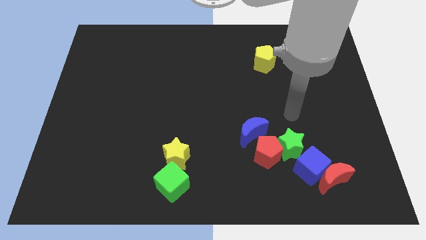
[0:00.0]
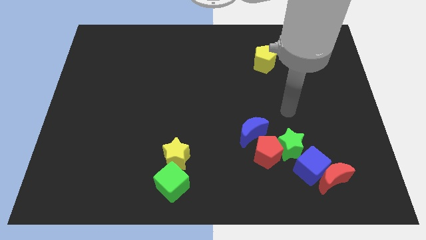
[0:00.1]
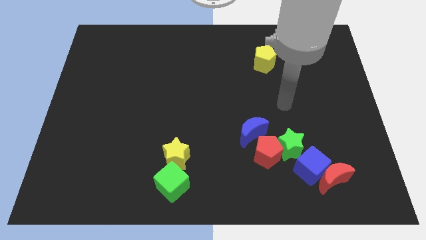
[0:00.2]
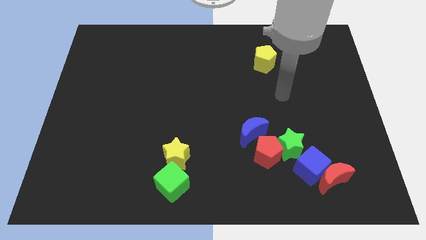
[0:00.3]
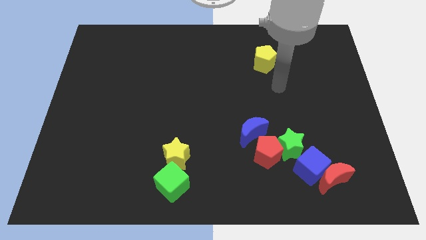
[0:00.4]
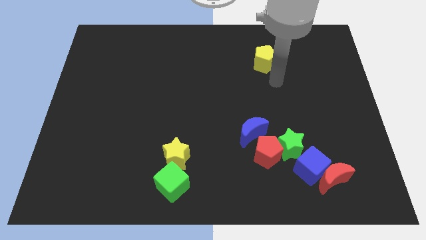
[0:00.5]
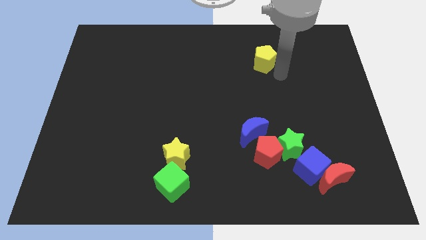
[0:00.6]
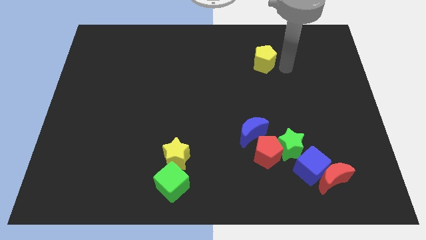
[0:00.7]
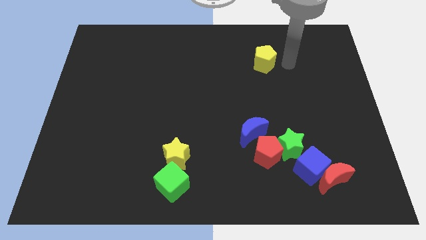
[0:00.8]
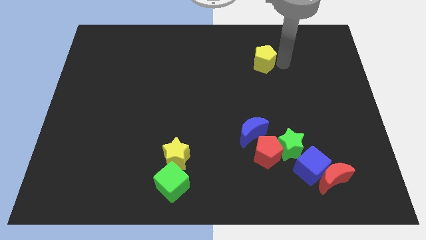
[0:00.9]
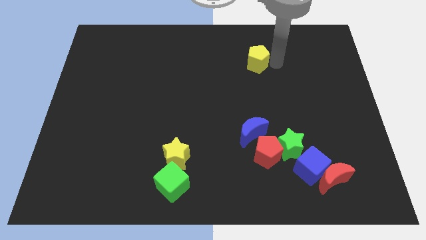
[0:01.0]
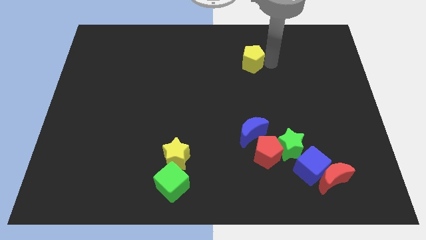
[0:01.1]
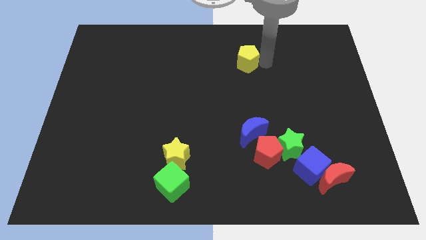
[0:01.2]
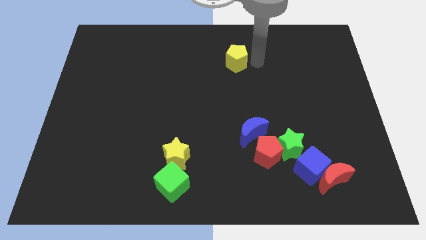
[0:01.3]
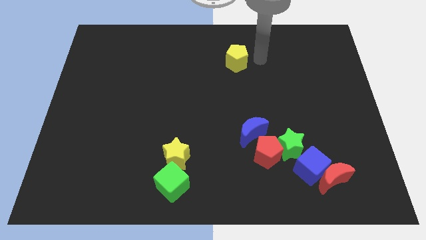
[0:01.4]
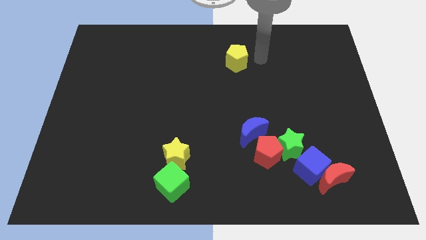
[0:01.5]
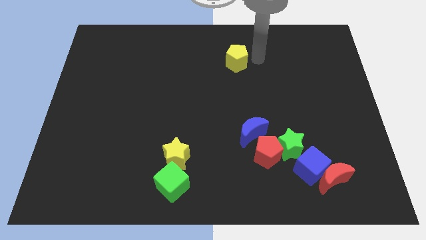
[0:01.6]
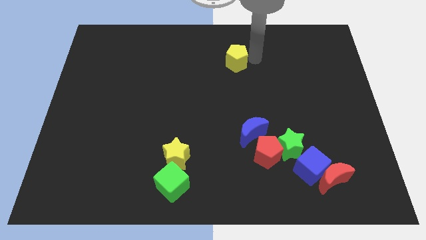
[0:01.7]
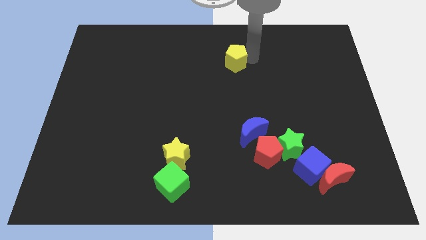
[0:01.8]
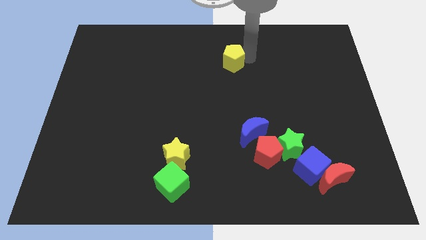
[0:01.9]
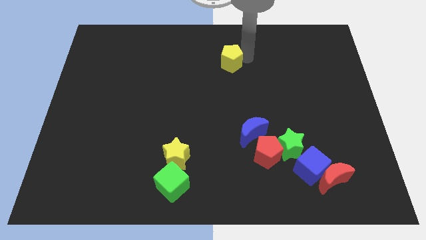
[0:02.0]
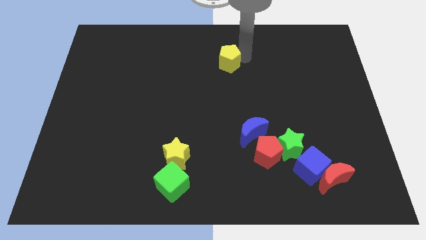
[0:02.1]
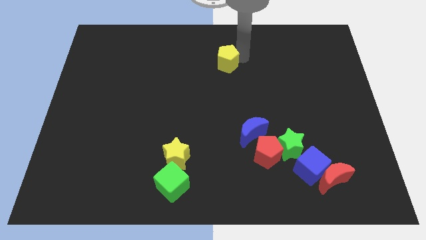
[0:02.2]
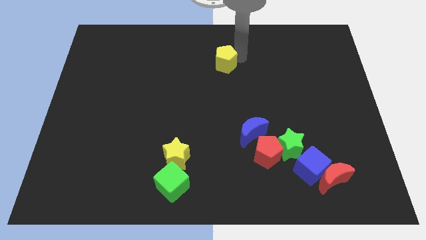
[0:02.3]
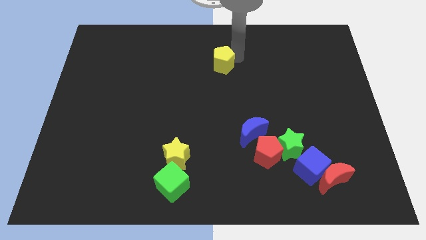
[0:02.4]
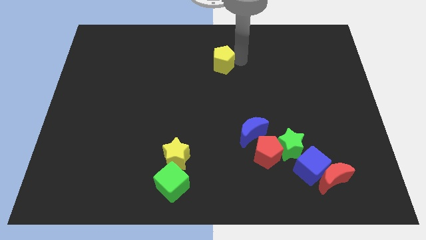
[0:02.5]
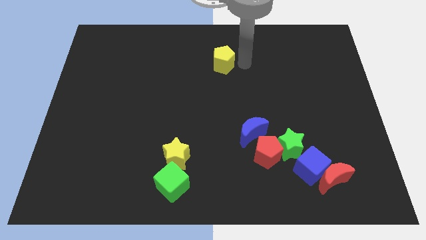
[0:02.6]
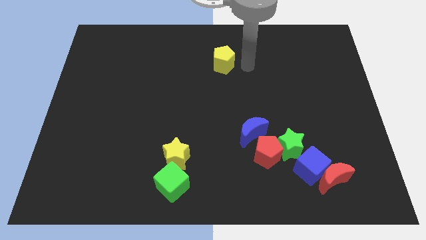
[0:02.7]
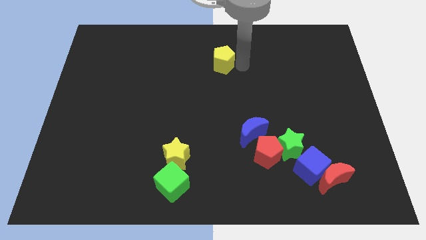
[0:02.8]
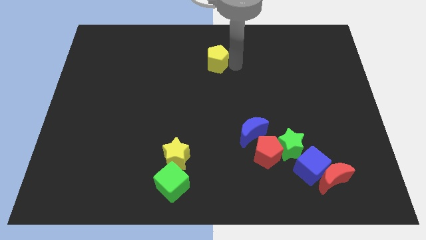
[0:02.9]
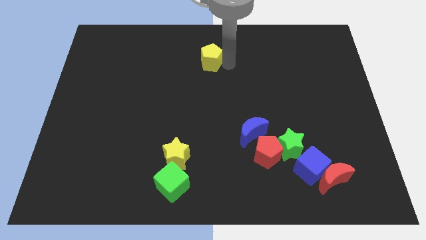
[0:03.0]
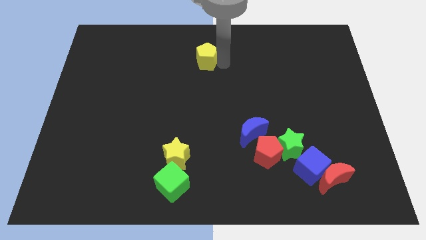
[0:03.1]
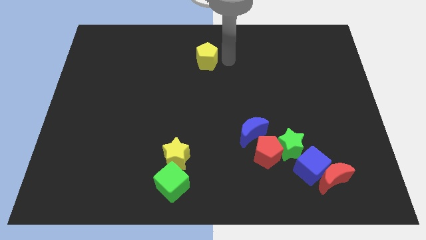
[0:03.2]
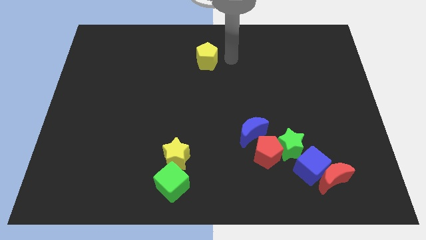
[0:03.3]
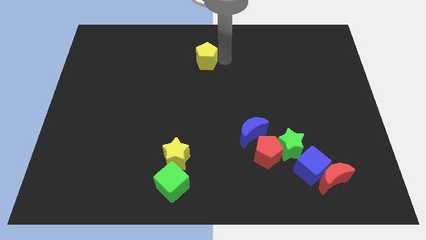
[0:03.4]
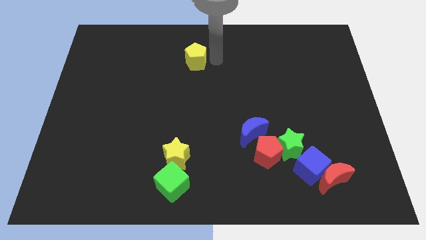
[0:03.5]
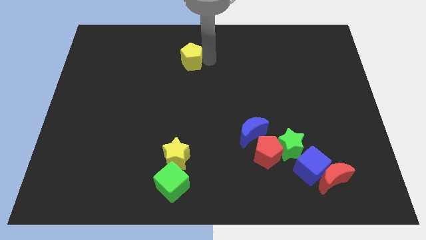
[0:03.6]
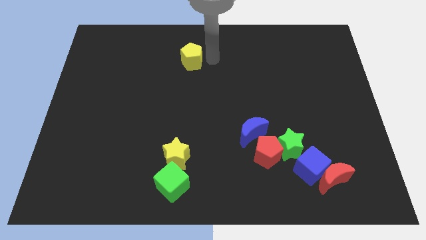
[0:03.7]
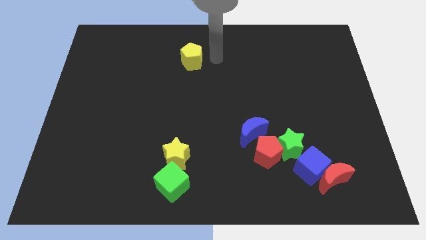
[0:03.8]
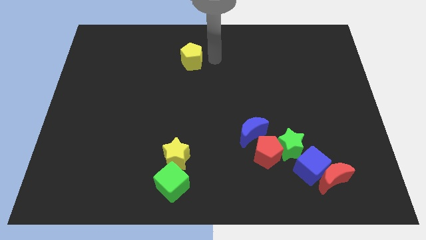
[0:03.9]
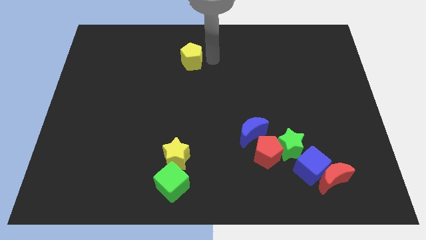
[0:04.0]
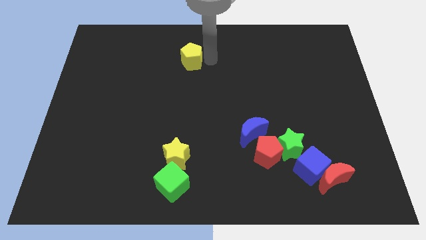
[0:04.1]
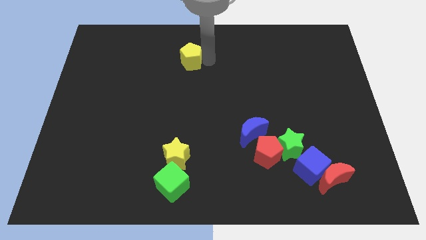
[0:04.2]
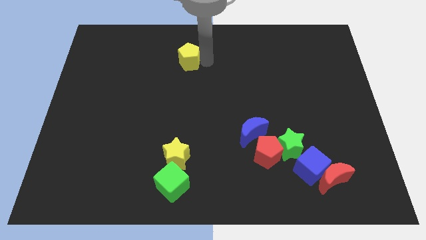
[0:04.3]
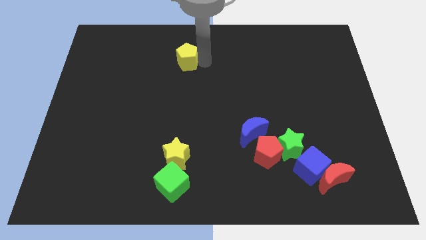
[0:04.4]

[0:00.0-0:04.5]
move the yellow pentagon to the left

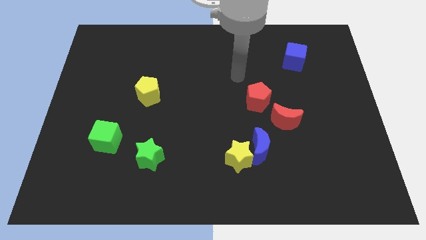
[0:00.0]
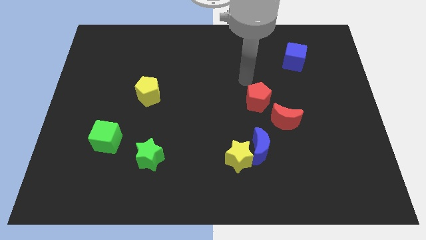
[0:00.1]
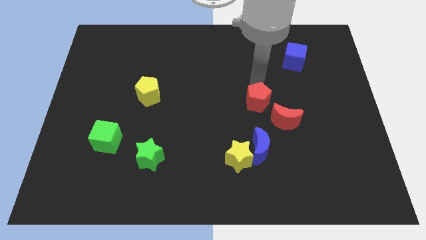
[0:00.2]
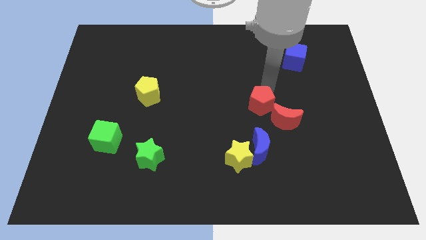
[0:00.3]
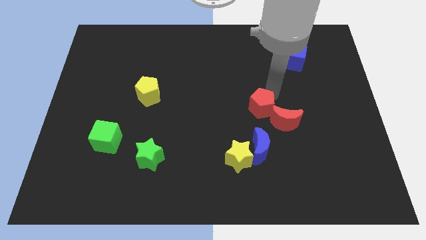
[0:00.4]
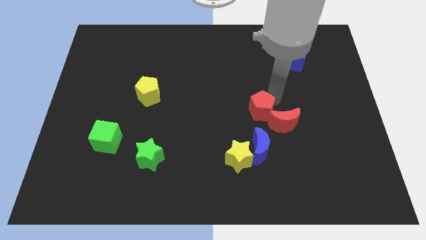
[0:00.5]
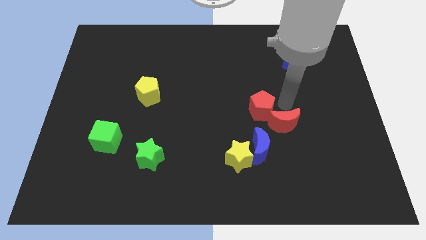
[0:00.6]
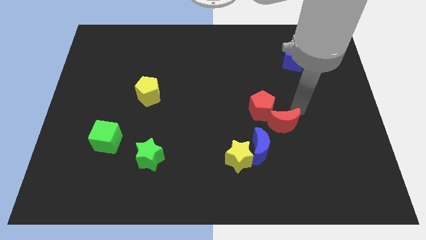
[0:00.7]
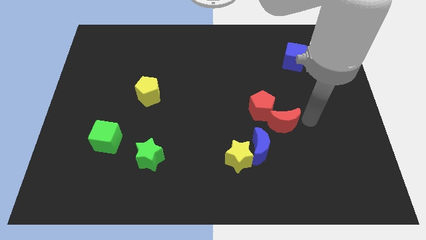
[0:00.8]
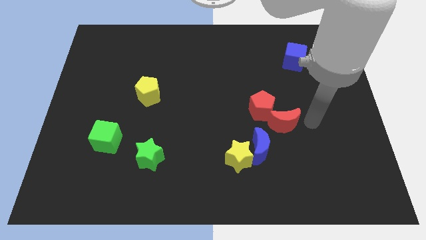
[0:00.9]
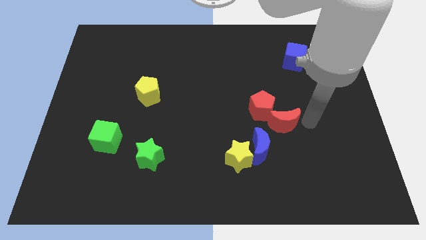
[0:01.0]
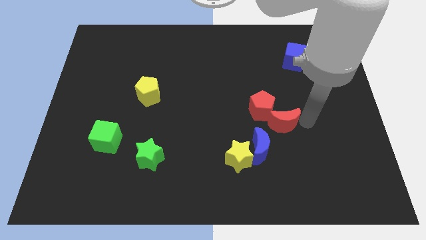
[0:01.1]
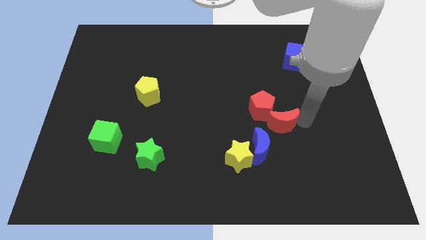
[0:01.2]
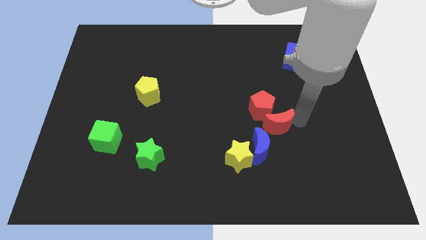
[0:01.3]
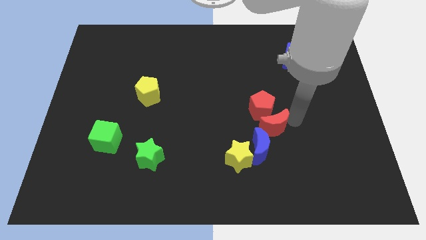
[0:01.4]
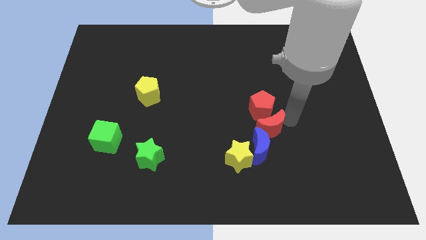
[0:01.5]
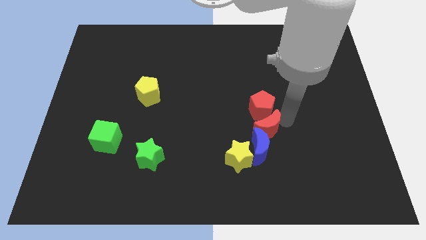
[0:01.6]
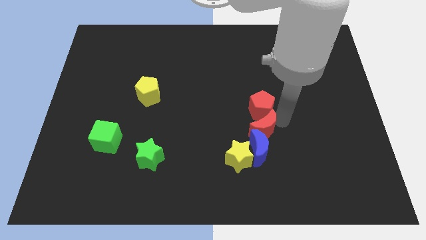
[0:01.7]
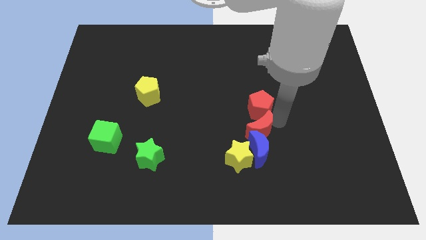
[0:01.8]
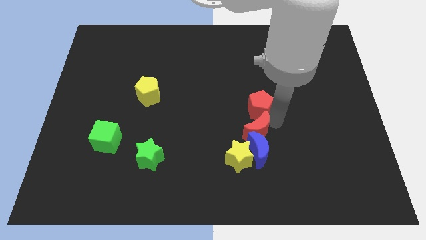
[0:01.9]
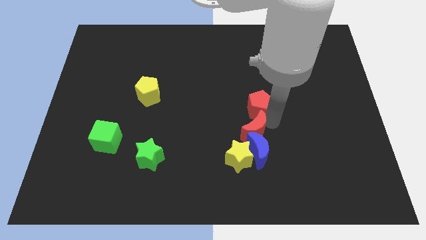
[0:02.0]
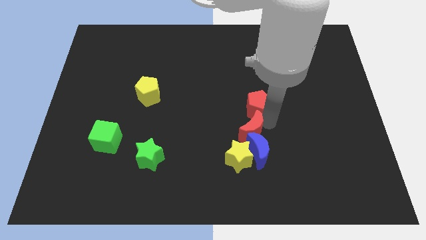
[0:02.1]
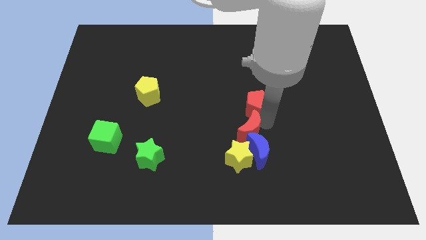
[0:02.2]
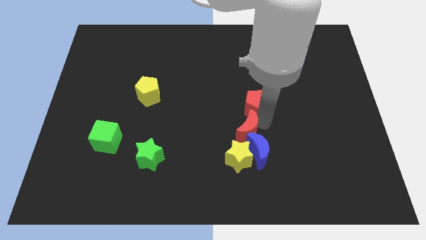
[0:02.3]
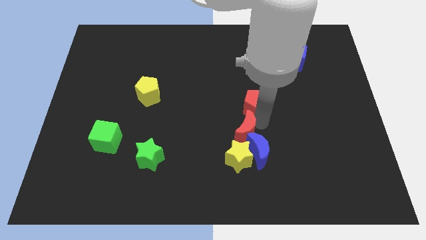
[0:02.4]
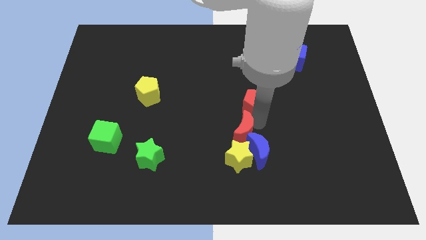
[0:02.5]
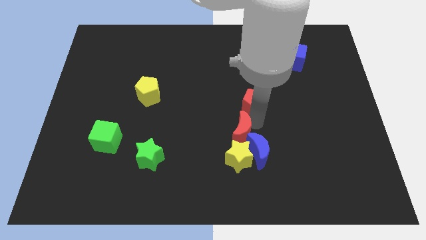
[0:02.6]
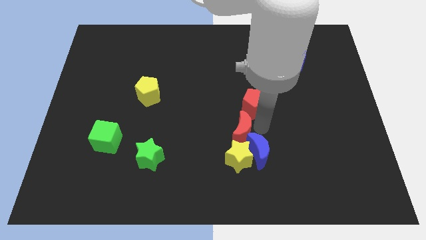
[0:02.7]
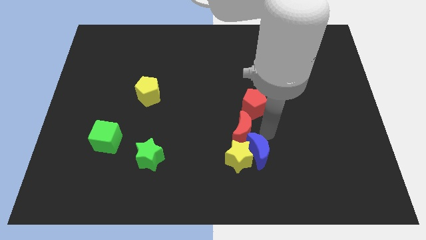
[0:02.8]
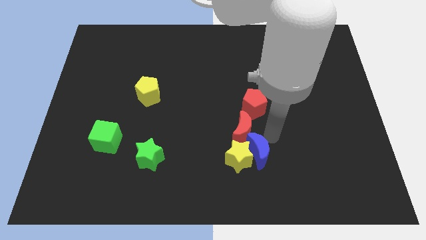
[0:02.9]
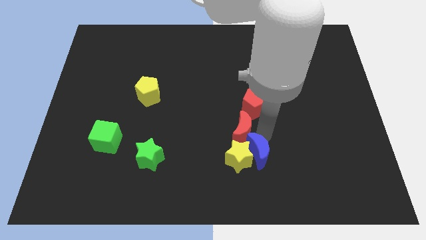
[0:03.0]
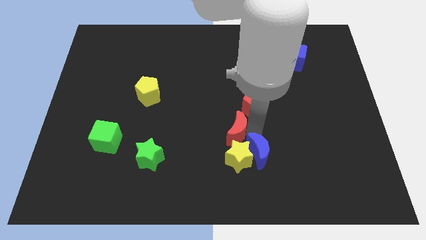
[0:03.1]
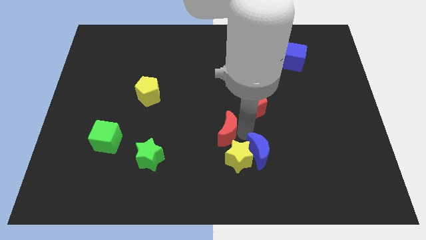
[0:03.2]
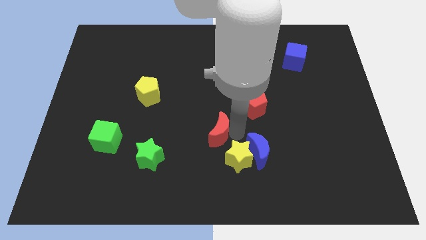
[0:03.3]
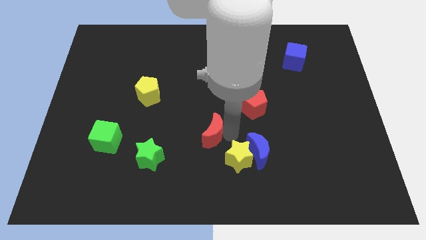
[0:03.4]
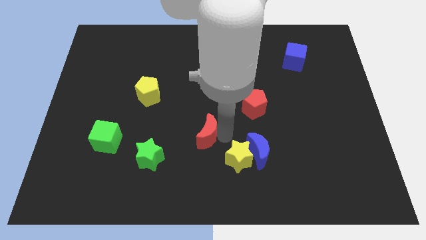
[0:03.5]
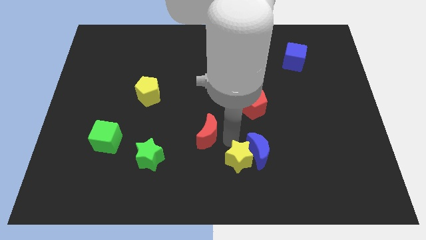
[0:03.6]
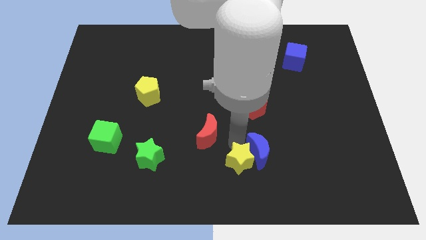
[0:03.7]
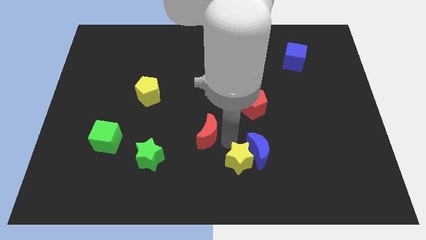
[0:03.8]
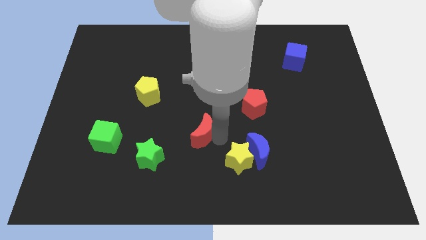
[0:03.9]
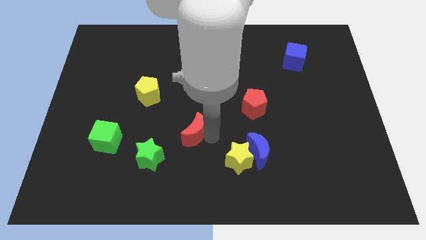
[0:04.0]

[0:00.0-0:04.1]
push the red moon to the left
